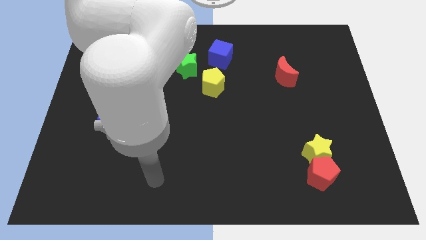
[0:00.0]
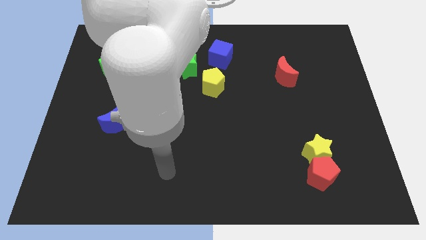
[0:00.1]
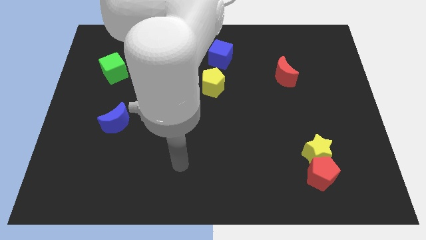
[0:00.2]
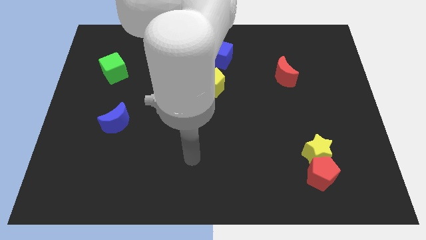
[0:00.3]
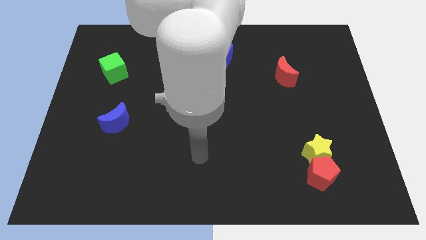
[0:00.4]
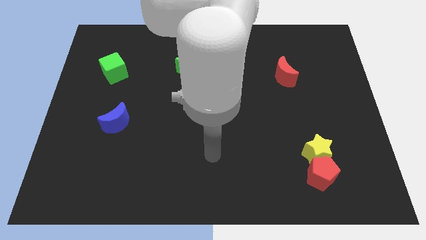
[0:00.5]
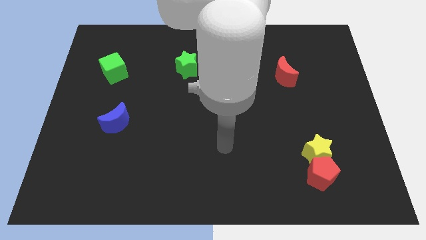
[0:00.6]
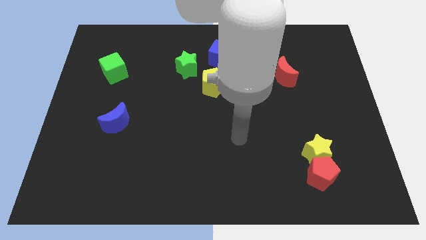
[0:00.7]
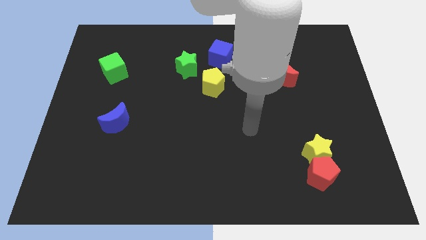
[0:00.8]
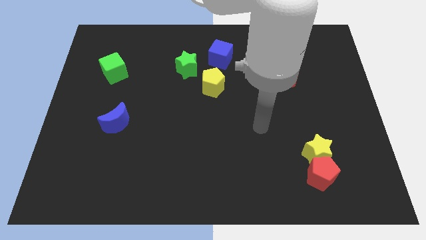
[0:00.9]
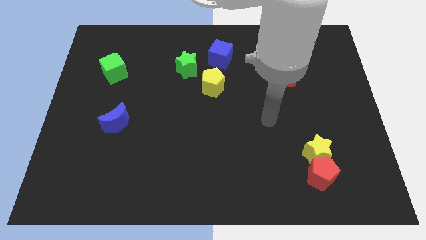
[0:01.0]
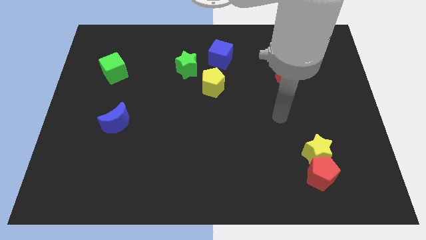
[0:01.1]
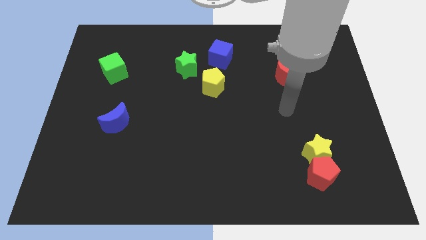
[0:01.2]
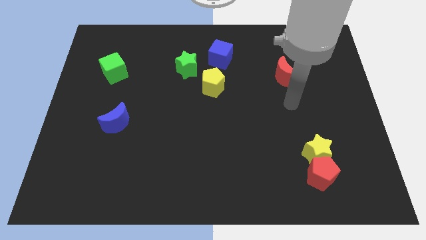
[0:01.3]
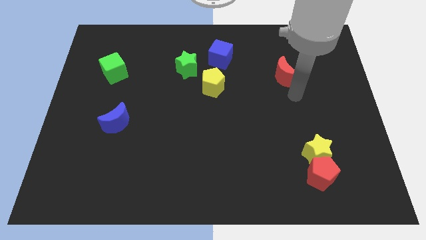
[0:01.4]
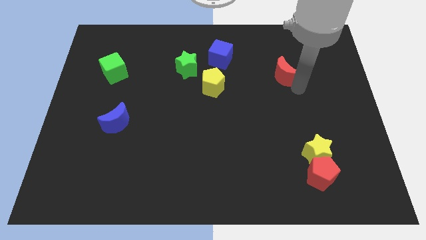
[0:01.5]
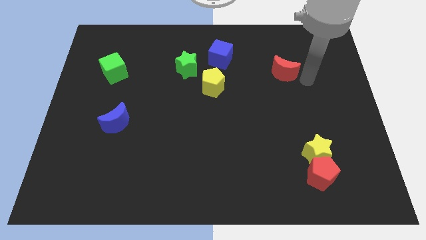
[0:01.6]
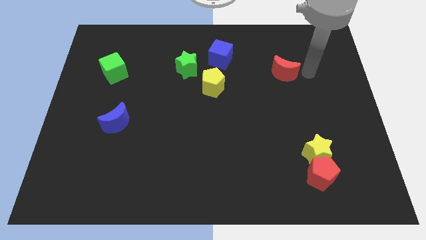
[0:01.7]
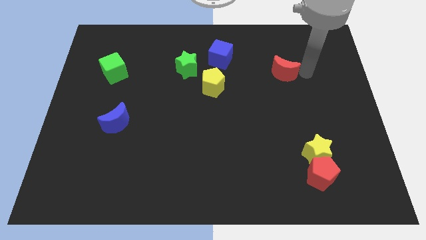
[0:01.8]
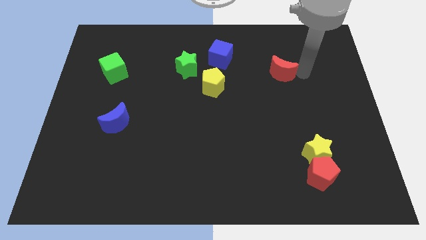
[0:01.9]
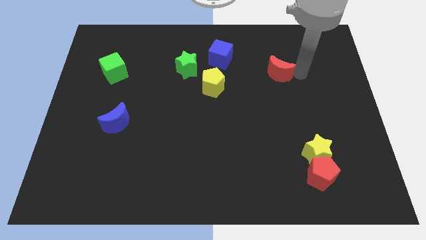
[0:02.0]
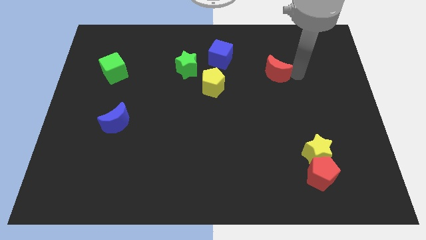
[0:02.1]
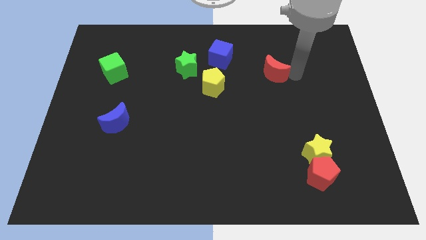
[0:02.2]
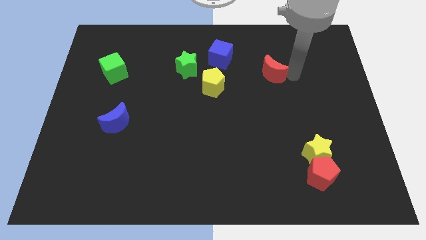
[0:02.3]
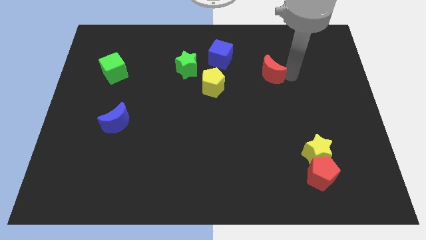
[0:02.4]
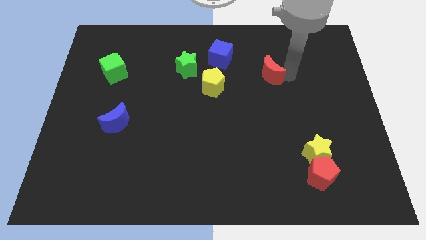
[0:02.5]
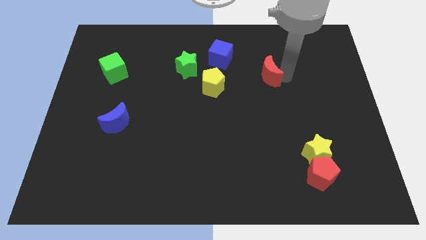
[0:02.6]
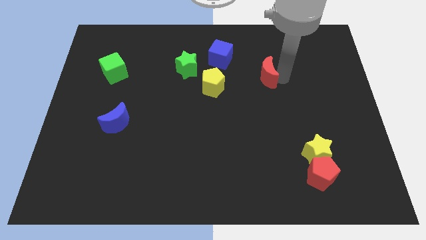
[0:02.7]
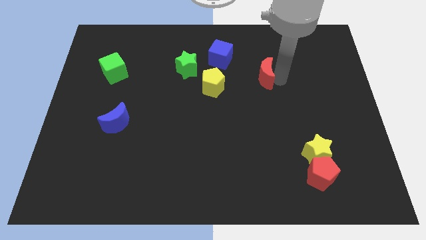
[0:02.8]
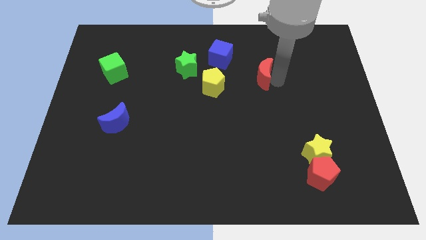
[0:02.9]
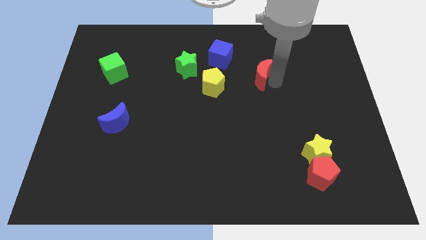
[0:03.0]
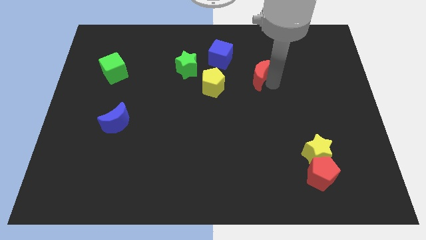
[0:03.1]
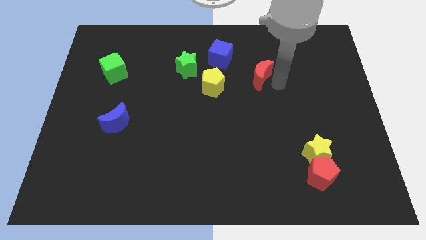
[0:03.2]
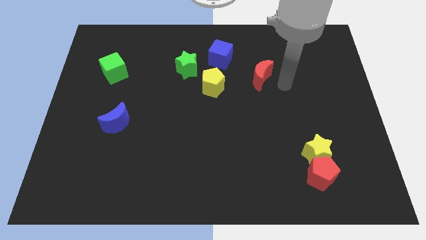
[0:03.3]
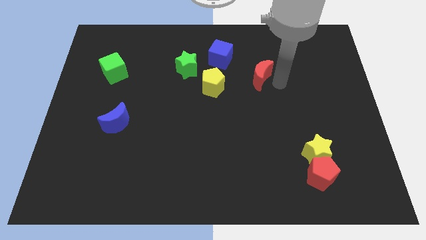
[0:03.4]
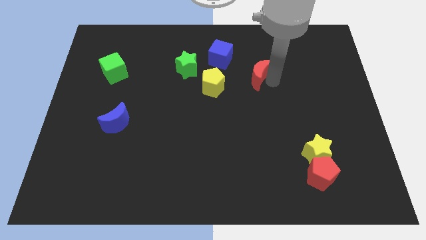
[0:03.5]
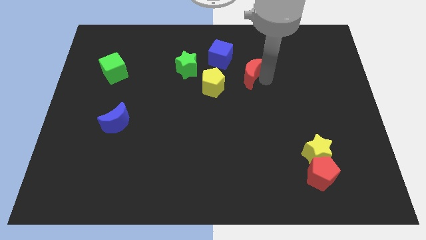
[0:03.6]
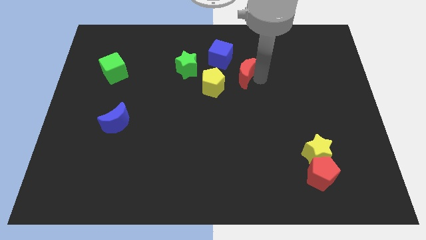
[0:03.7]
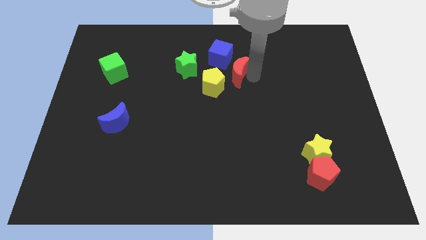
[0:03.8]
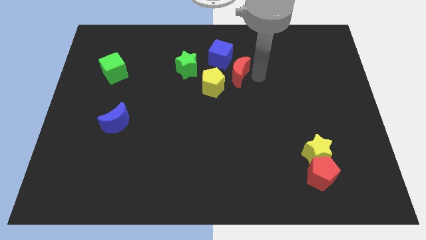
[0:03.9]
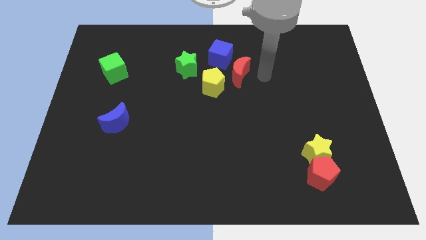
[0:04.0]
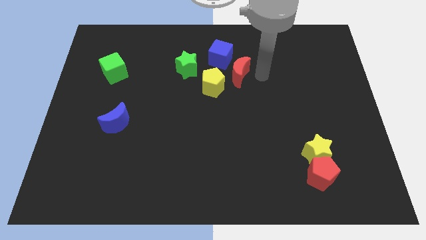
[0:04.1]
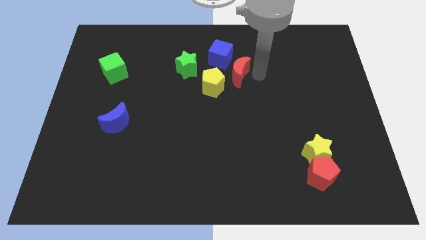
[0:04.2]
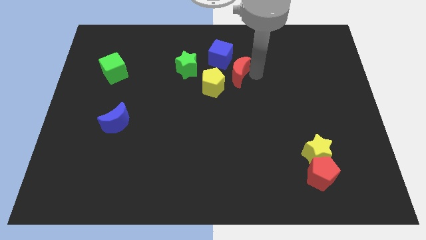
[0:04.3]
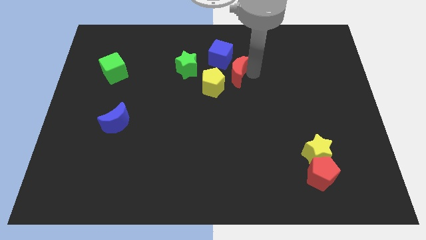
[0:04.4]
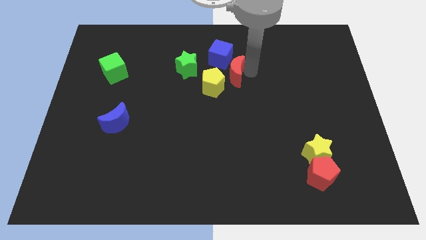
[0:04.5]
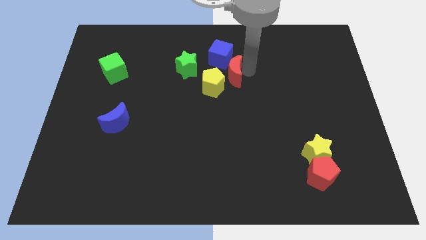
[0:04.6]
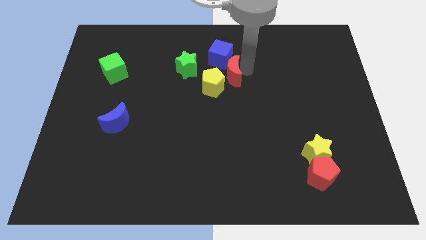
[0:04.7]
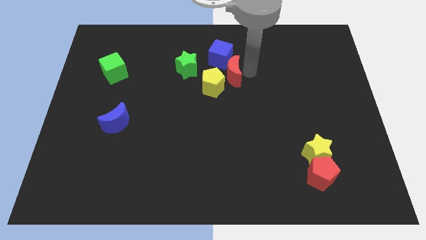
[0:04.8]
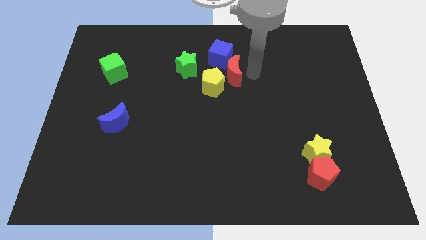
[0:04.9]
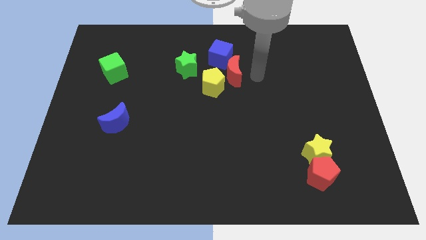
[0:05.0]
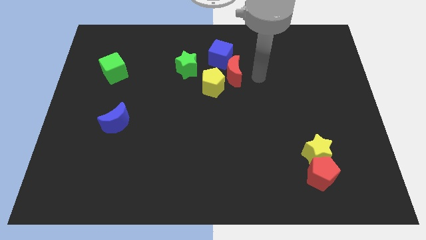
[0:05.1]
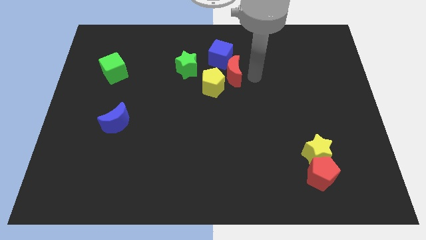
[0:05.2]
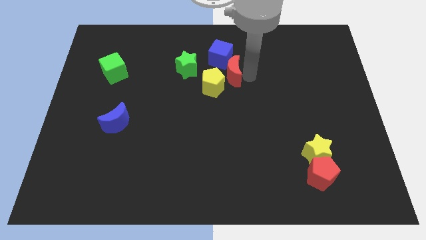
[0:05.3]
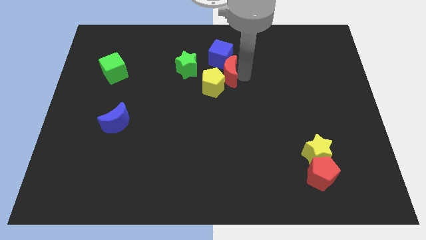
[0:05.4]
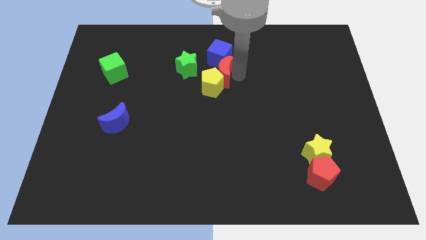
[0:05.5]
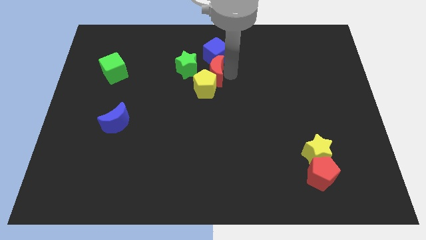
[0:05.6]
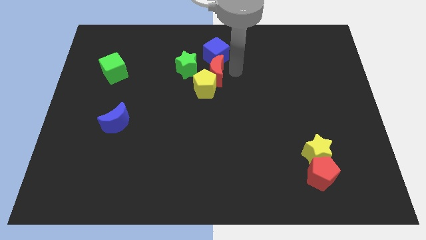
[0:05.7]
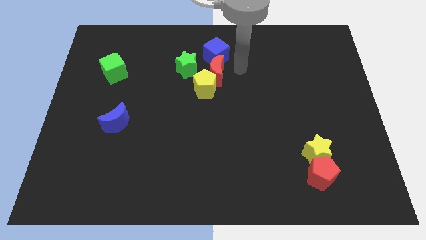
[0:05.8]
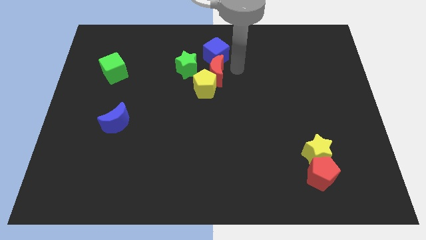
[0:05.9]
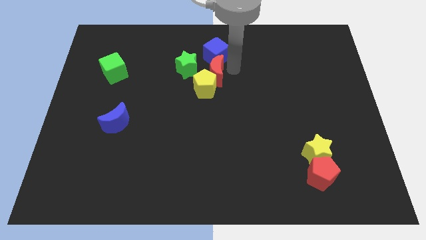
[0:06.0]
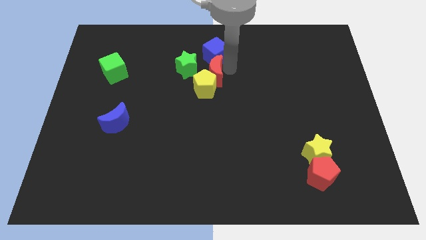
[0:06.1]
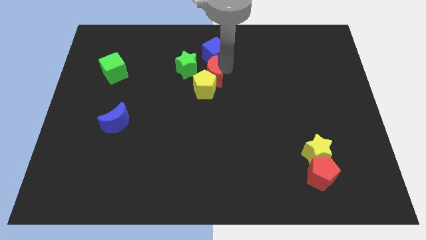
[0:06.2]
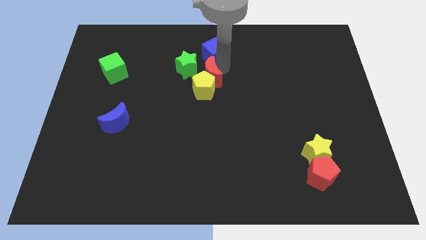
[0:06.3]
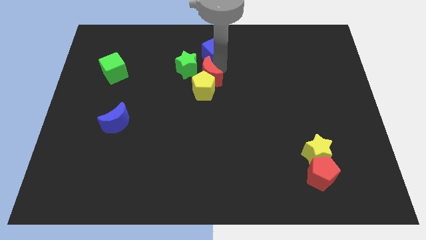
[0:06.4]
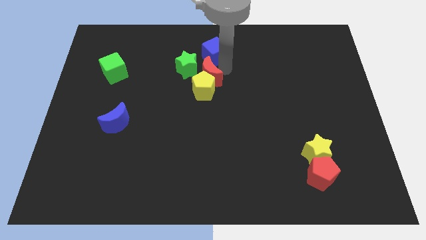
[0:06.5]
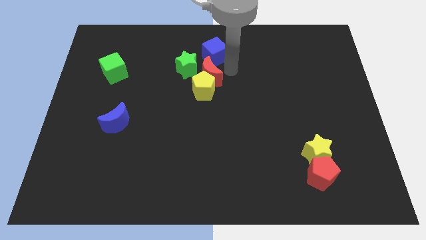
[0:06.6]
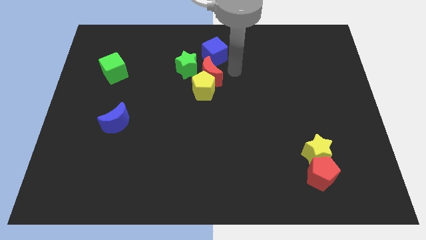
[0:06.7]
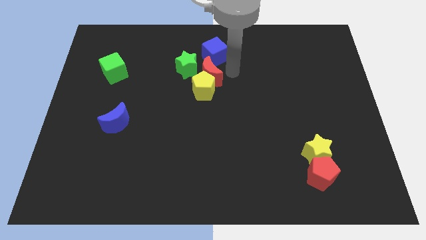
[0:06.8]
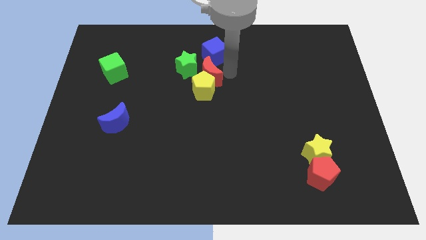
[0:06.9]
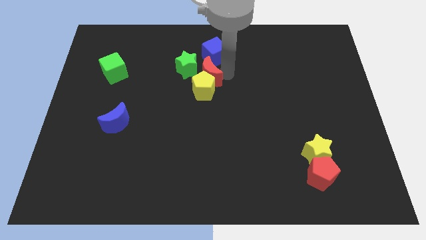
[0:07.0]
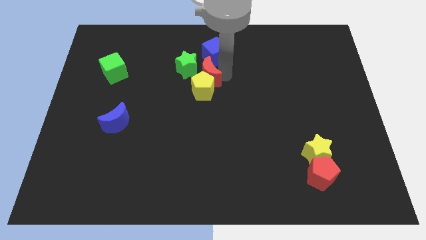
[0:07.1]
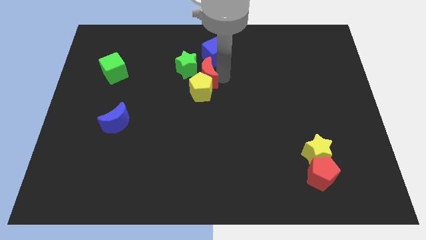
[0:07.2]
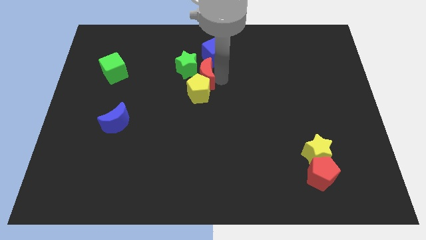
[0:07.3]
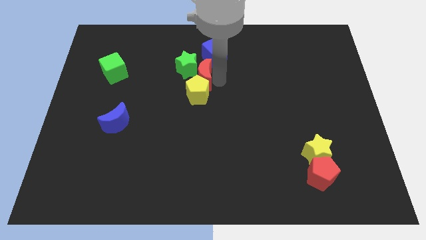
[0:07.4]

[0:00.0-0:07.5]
push the red moon to the left

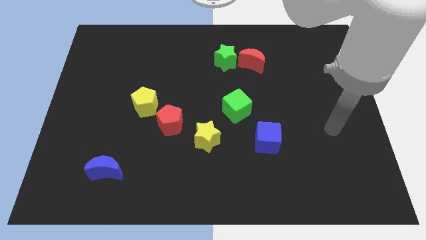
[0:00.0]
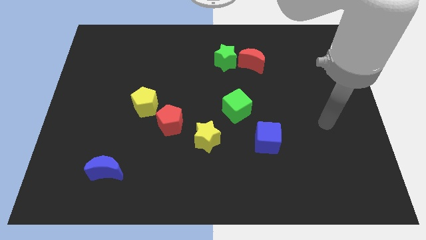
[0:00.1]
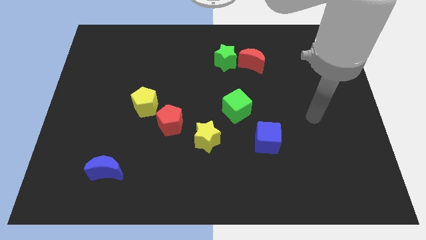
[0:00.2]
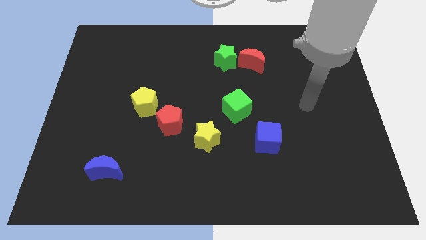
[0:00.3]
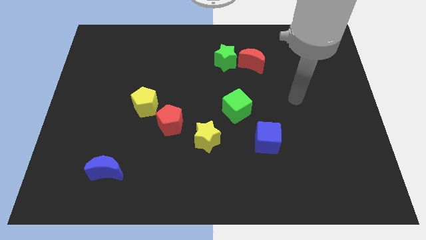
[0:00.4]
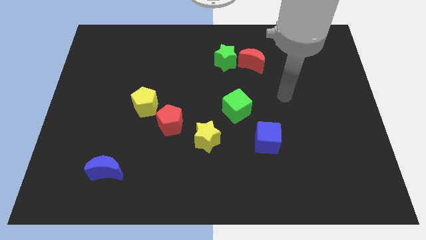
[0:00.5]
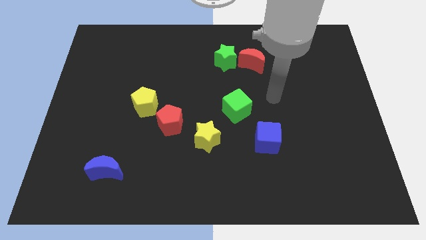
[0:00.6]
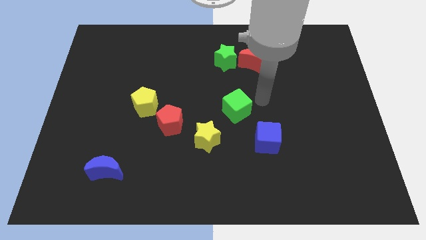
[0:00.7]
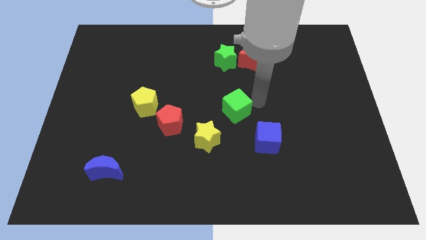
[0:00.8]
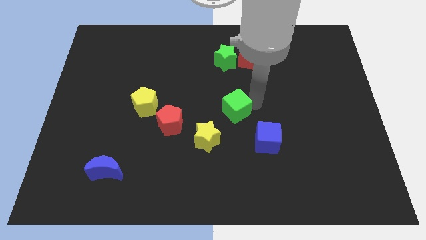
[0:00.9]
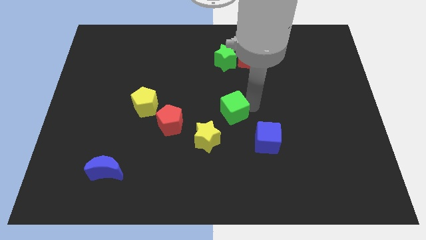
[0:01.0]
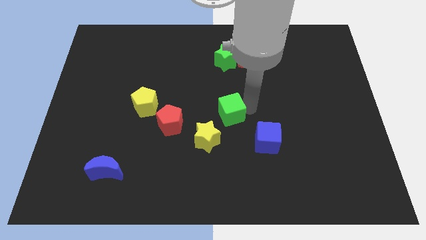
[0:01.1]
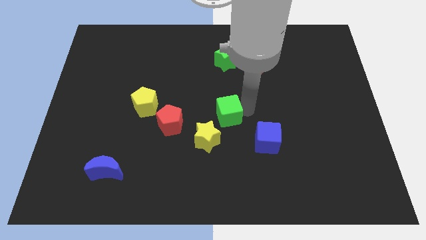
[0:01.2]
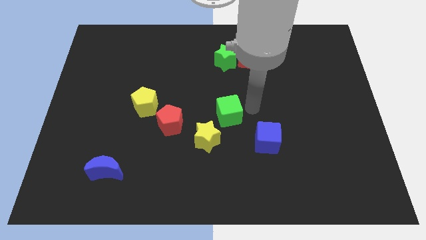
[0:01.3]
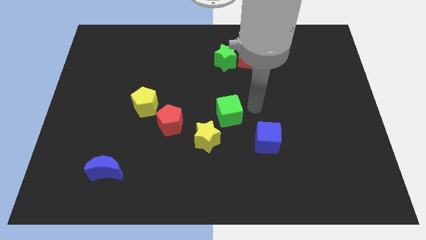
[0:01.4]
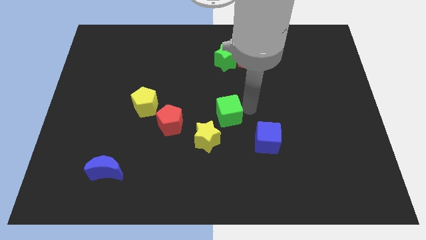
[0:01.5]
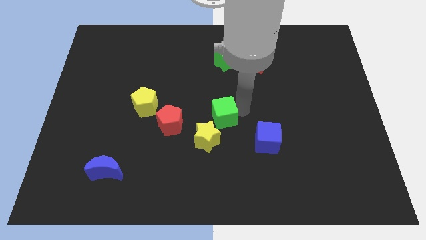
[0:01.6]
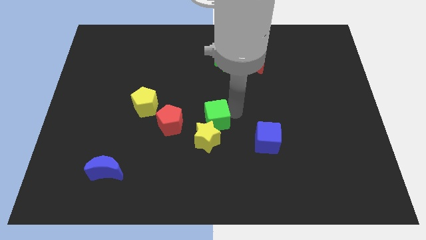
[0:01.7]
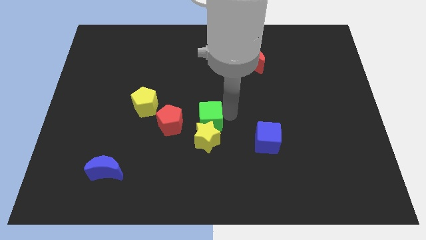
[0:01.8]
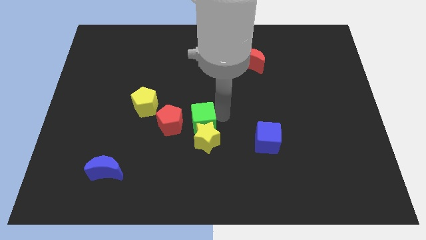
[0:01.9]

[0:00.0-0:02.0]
slightly move the green cube downwards and to the left
